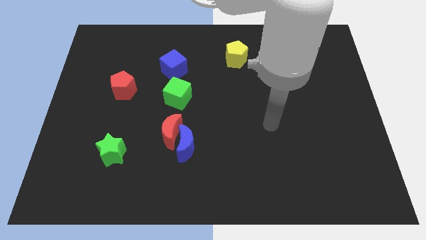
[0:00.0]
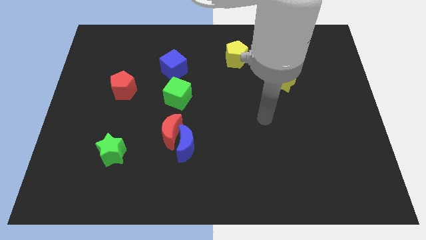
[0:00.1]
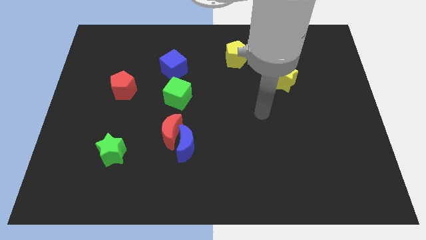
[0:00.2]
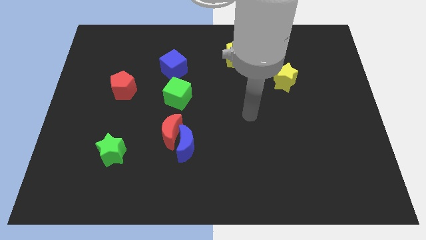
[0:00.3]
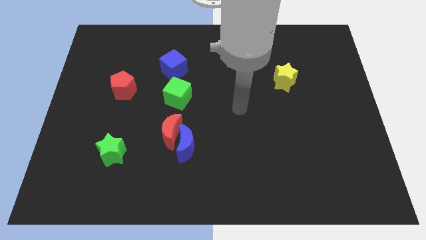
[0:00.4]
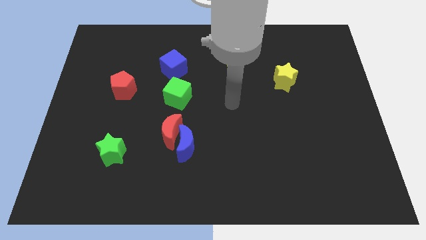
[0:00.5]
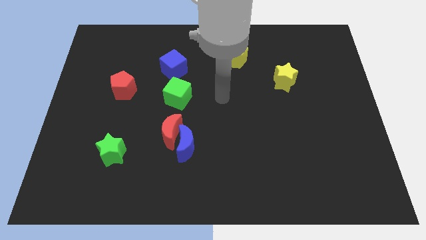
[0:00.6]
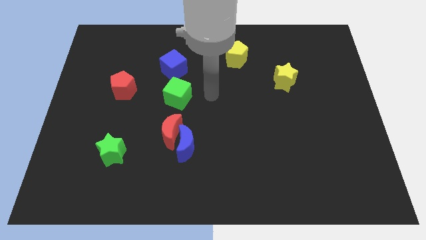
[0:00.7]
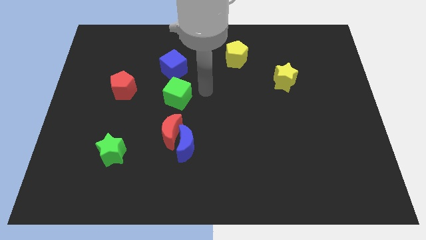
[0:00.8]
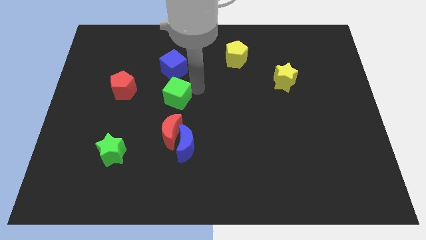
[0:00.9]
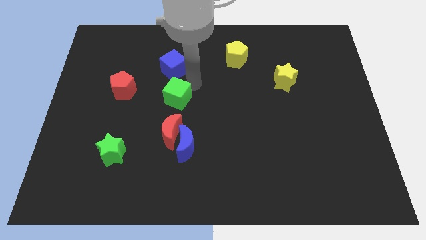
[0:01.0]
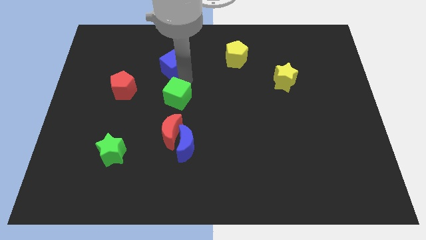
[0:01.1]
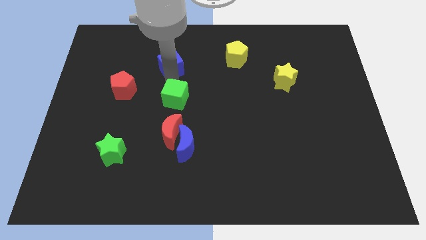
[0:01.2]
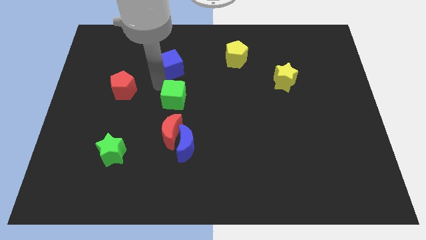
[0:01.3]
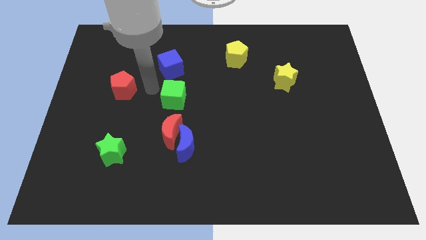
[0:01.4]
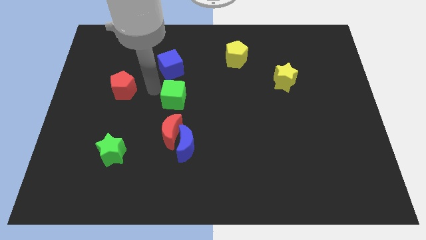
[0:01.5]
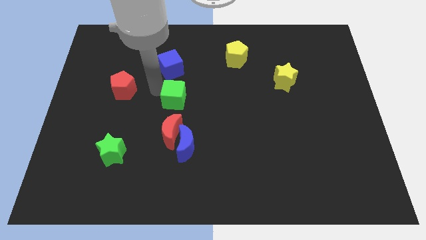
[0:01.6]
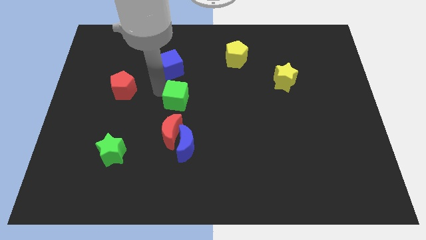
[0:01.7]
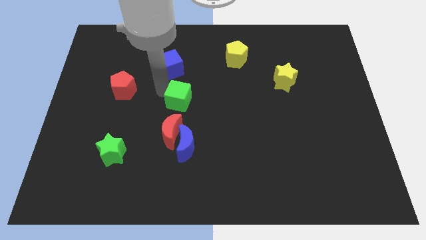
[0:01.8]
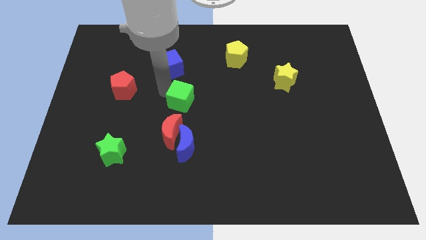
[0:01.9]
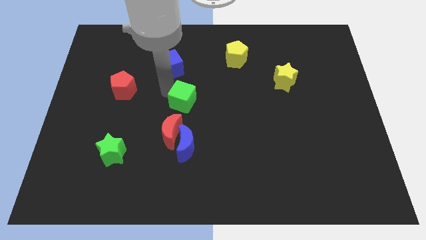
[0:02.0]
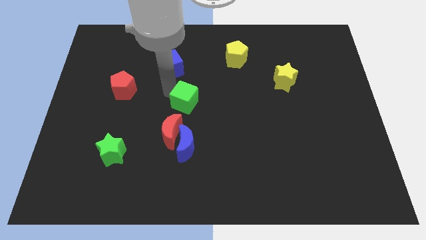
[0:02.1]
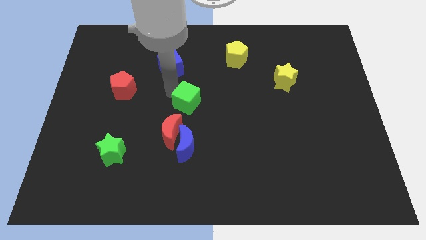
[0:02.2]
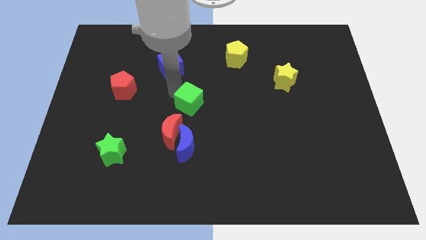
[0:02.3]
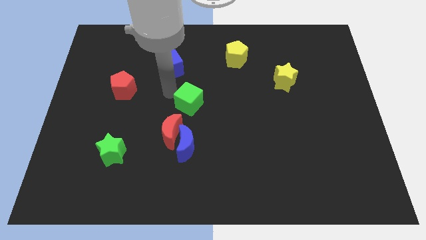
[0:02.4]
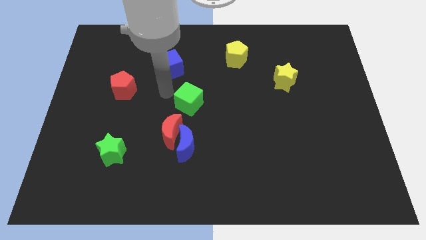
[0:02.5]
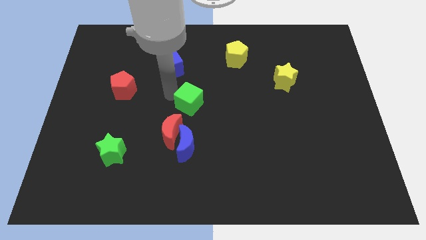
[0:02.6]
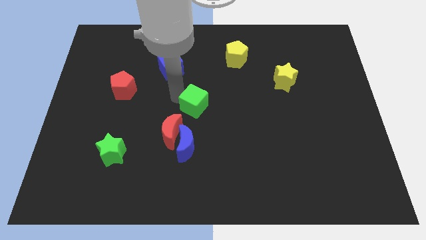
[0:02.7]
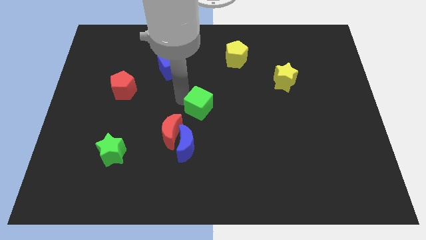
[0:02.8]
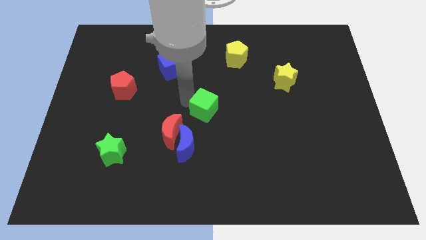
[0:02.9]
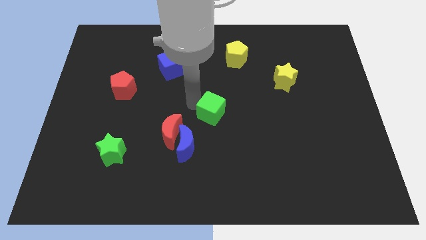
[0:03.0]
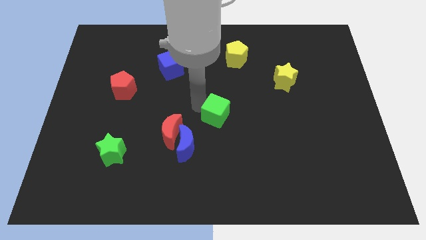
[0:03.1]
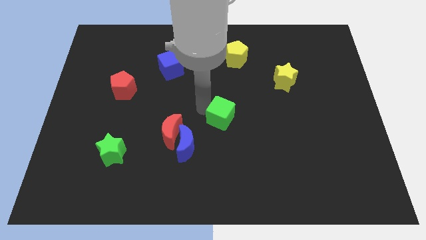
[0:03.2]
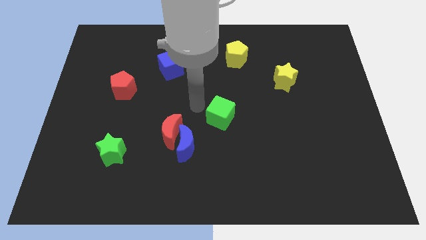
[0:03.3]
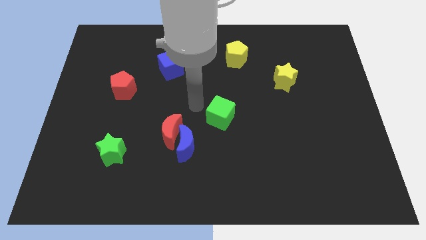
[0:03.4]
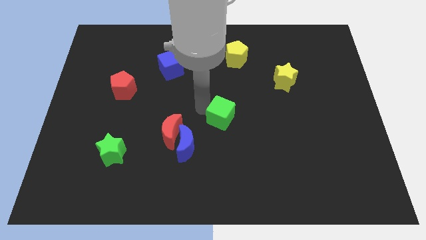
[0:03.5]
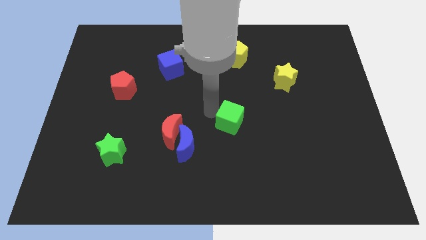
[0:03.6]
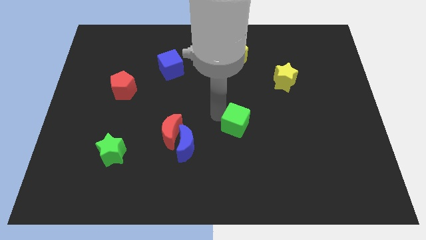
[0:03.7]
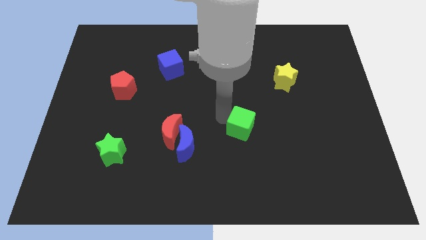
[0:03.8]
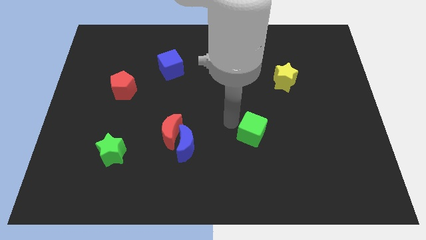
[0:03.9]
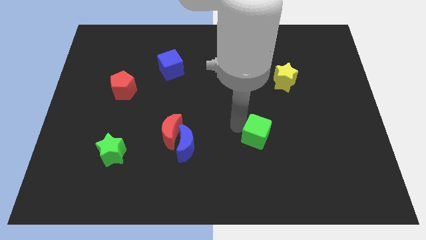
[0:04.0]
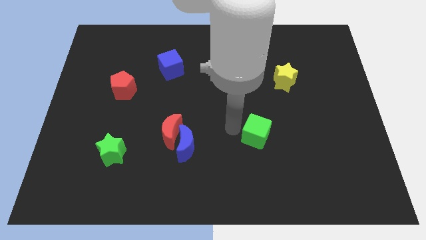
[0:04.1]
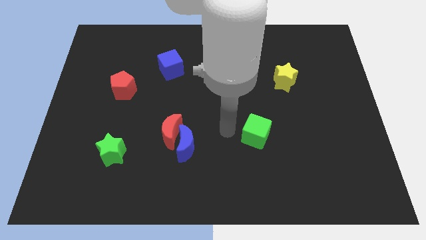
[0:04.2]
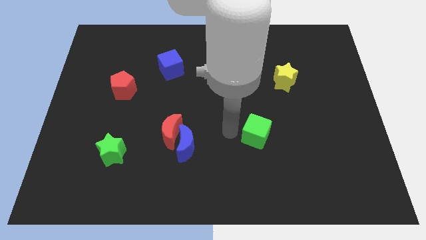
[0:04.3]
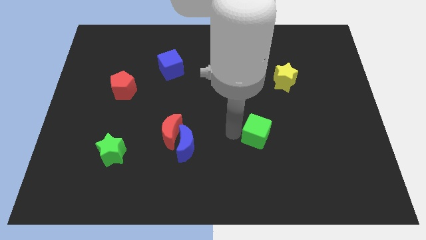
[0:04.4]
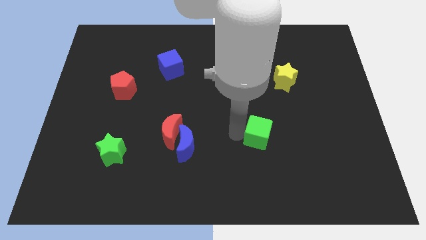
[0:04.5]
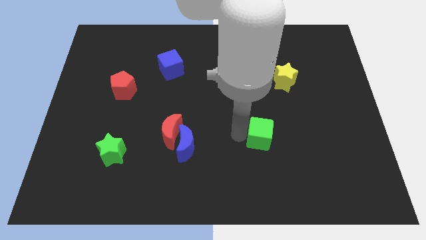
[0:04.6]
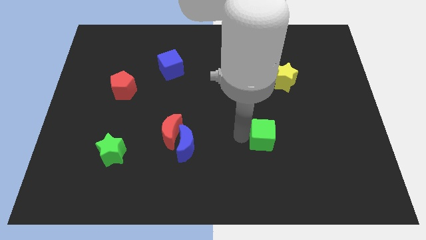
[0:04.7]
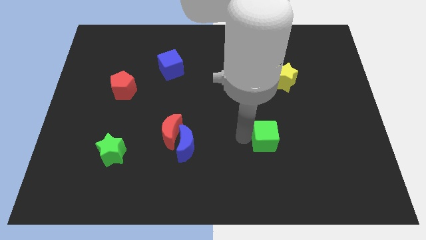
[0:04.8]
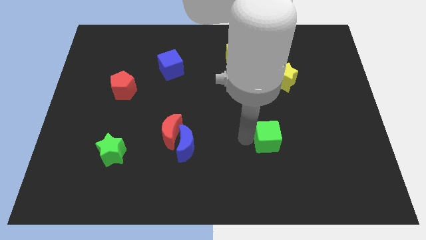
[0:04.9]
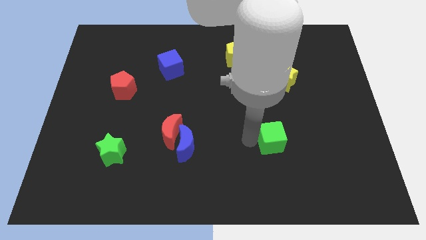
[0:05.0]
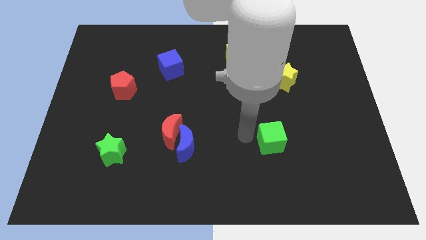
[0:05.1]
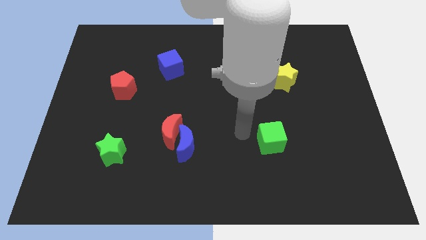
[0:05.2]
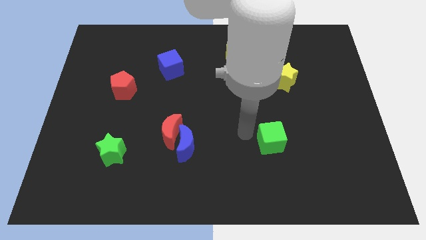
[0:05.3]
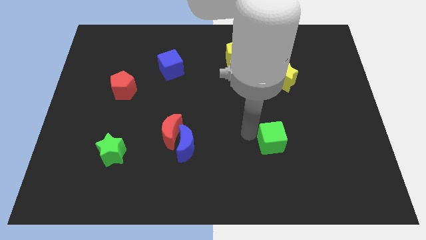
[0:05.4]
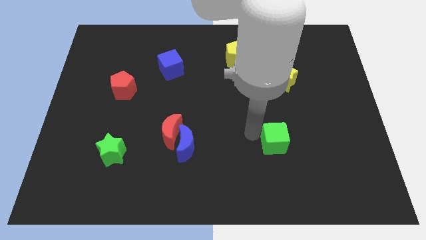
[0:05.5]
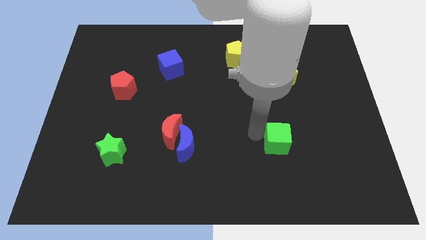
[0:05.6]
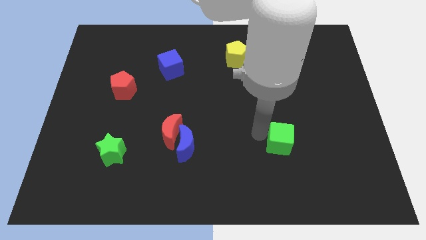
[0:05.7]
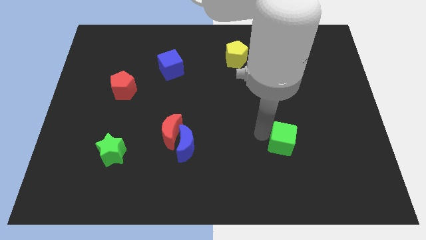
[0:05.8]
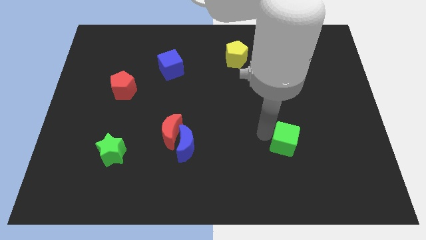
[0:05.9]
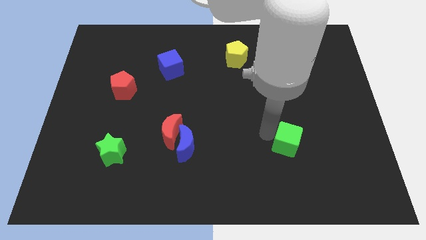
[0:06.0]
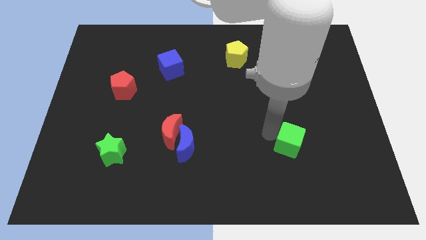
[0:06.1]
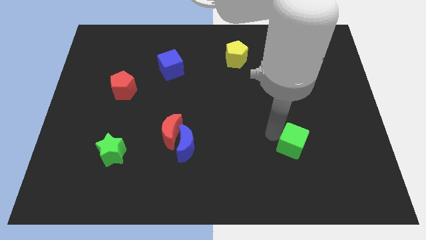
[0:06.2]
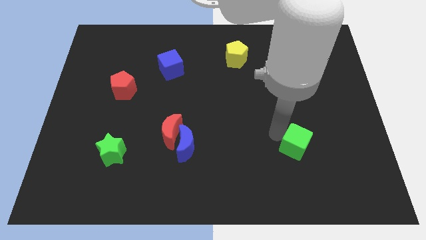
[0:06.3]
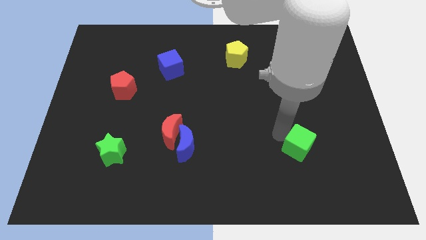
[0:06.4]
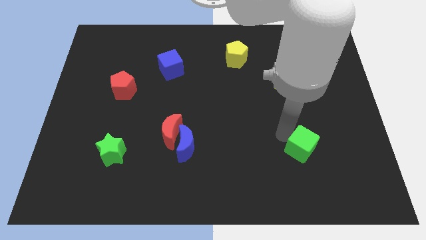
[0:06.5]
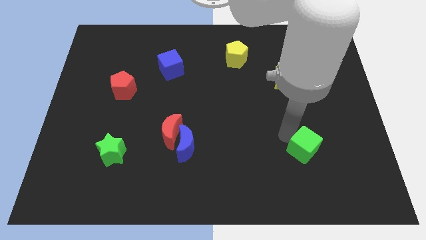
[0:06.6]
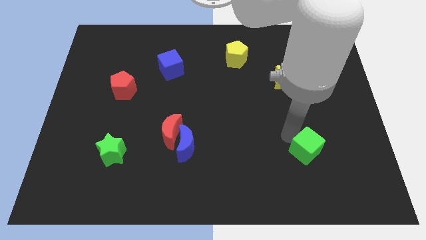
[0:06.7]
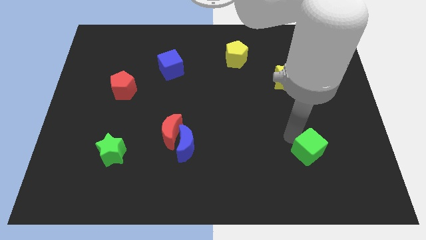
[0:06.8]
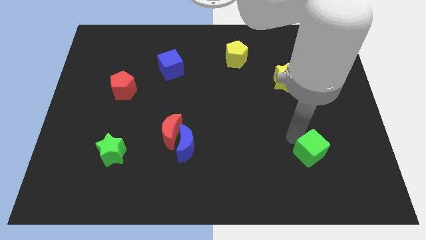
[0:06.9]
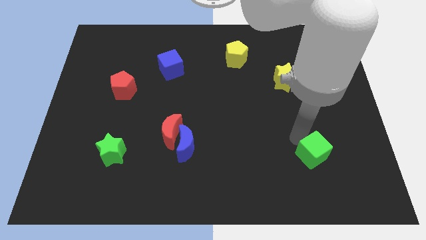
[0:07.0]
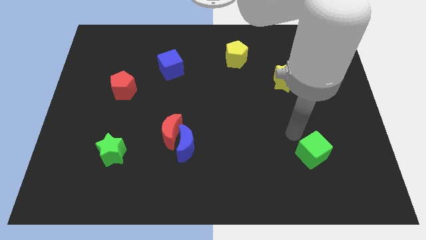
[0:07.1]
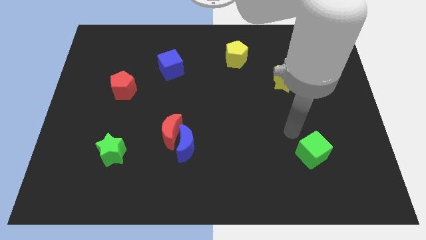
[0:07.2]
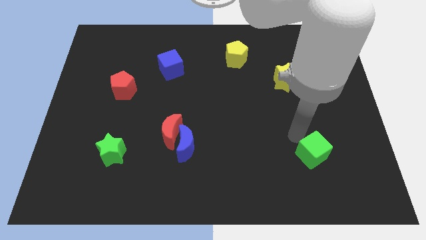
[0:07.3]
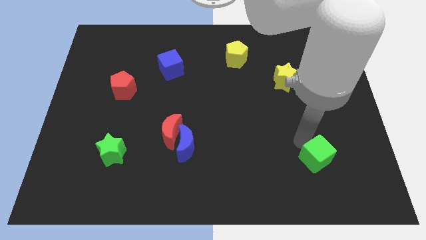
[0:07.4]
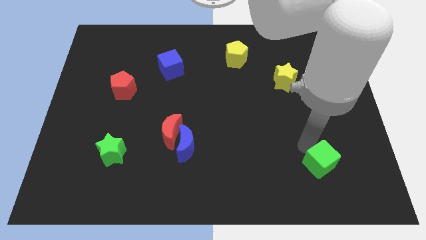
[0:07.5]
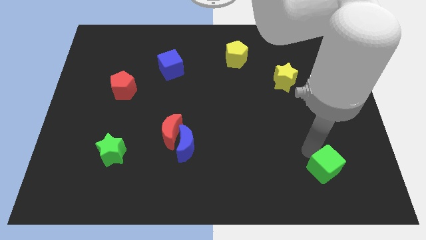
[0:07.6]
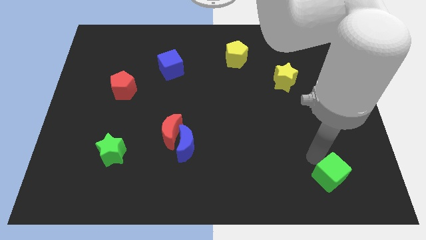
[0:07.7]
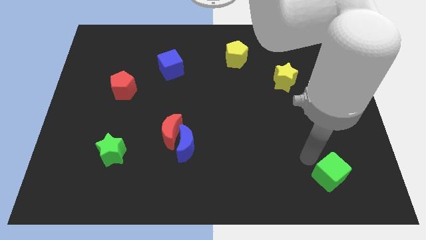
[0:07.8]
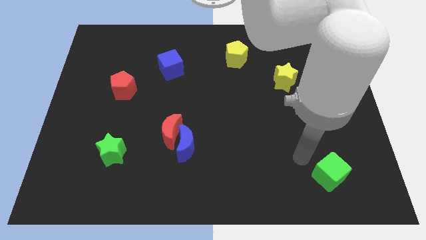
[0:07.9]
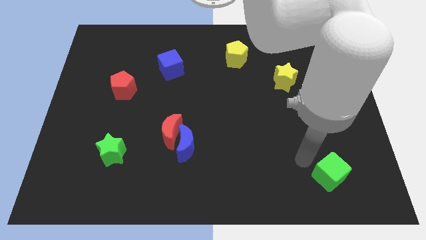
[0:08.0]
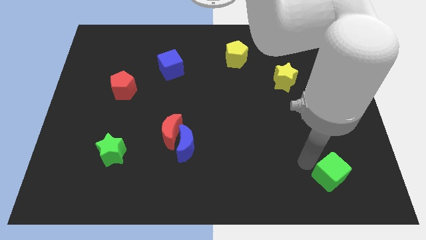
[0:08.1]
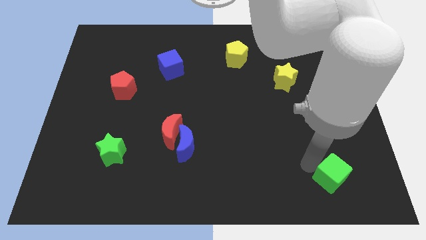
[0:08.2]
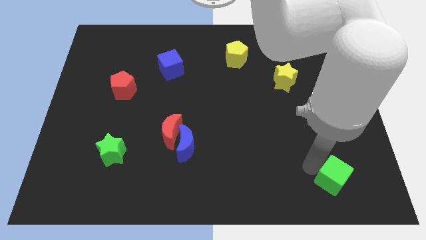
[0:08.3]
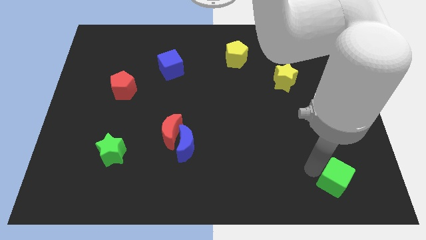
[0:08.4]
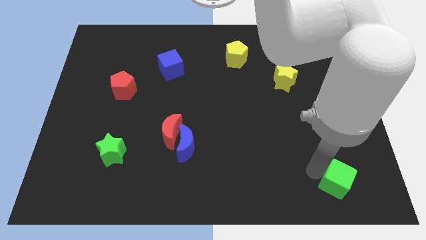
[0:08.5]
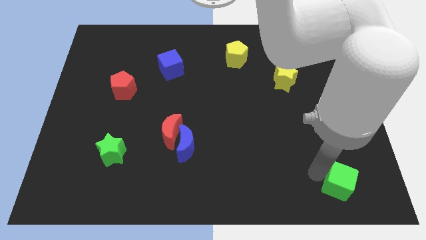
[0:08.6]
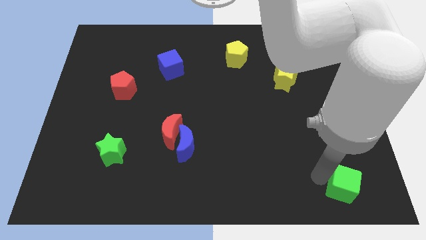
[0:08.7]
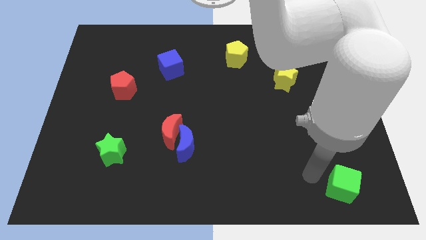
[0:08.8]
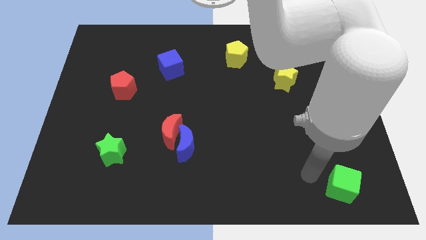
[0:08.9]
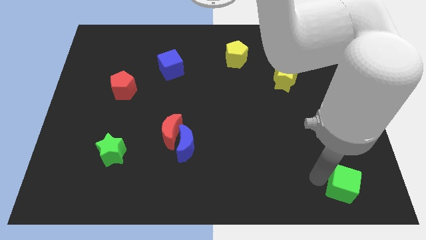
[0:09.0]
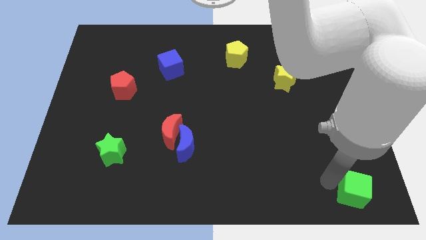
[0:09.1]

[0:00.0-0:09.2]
slide the green cube to the bottom right of the board
